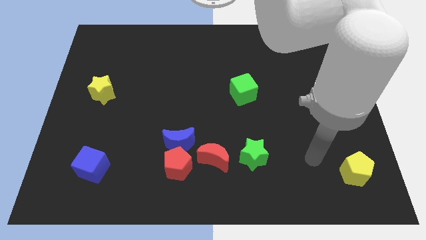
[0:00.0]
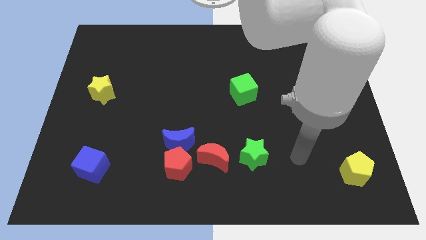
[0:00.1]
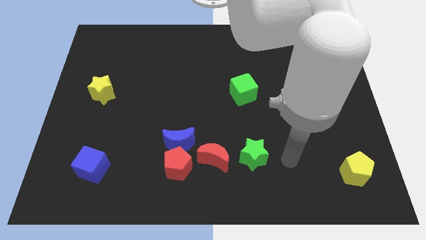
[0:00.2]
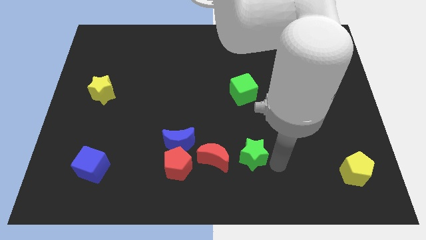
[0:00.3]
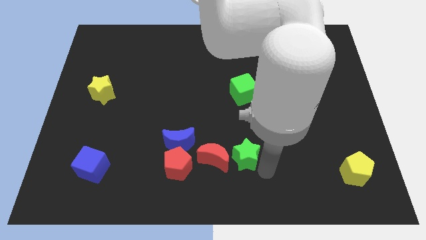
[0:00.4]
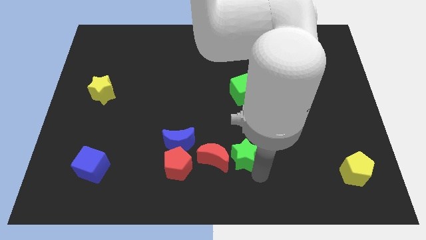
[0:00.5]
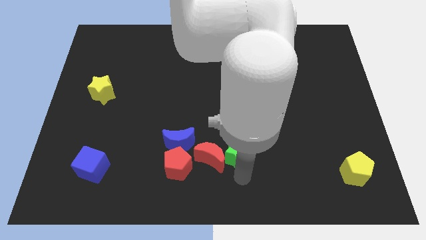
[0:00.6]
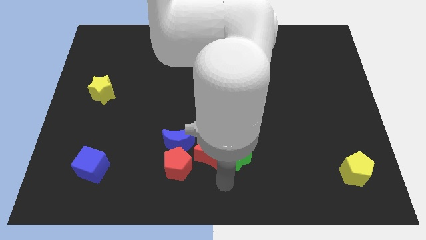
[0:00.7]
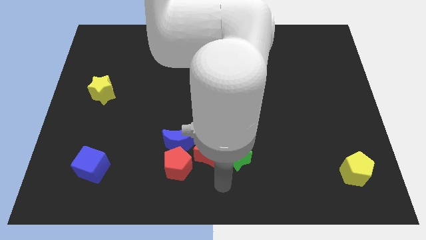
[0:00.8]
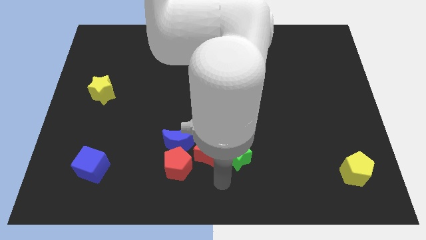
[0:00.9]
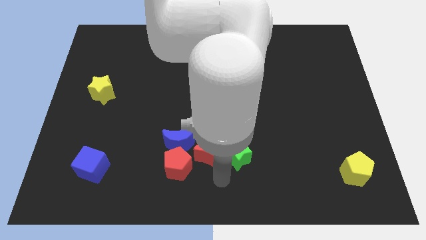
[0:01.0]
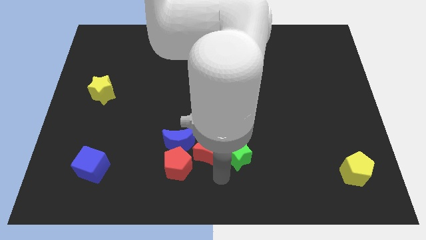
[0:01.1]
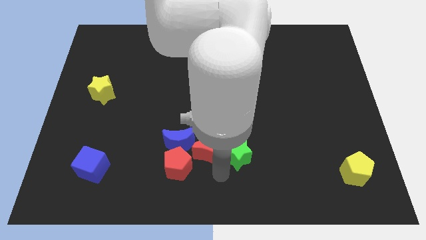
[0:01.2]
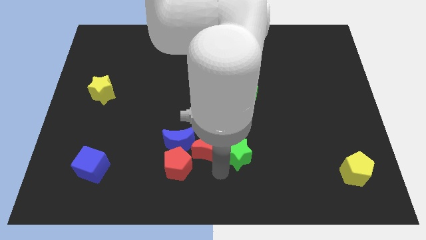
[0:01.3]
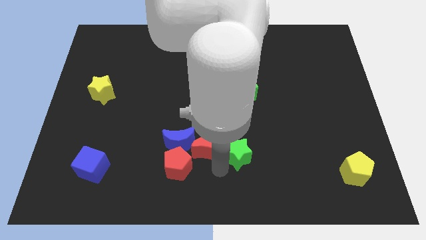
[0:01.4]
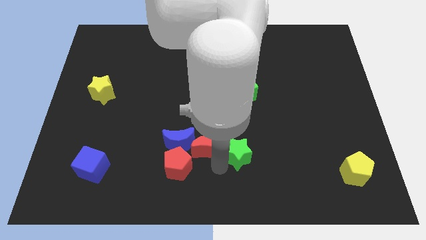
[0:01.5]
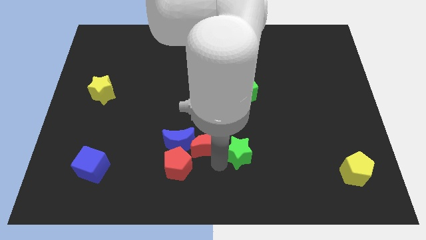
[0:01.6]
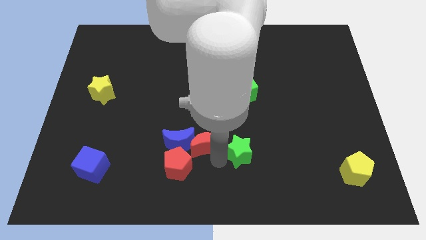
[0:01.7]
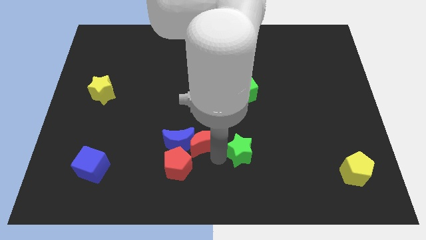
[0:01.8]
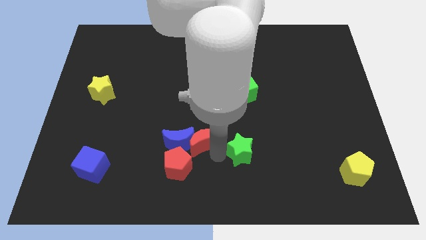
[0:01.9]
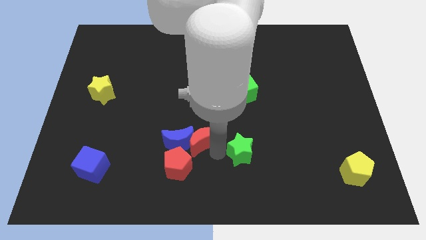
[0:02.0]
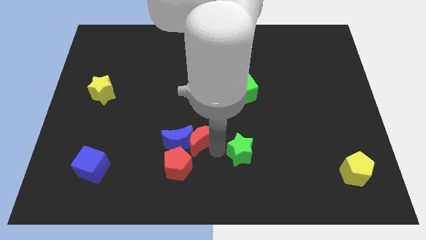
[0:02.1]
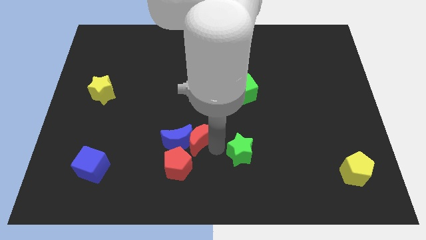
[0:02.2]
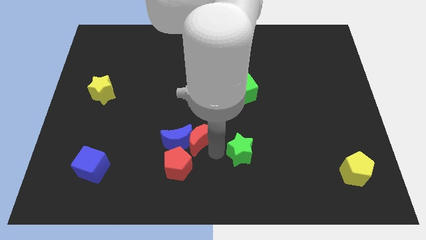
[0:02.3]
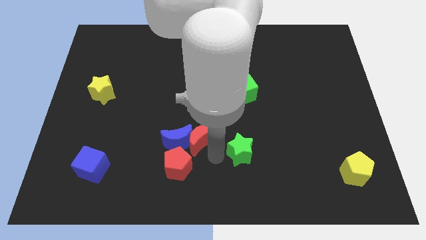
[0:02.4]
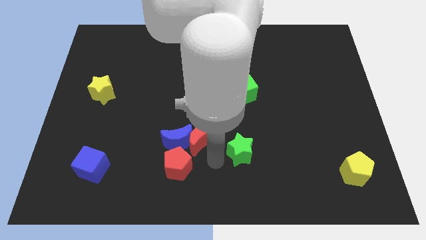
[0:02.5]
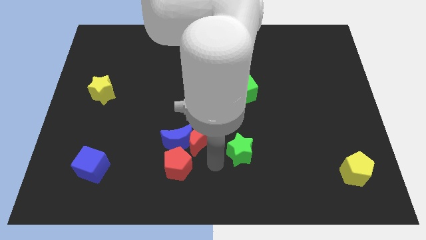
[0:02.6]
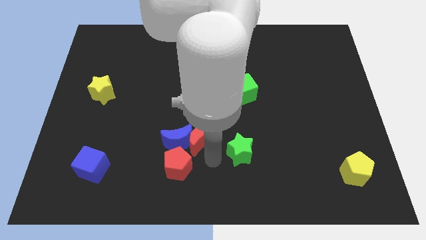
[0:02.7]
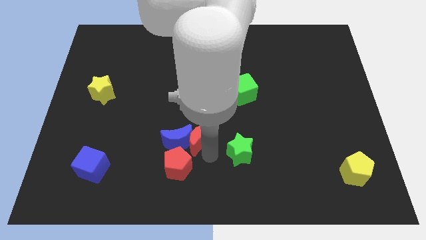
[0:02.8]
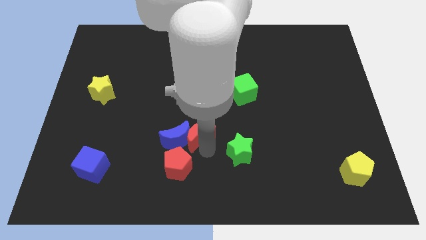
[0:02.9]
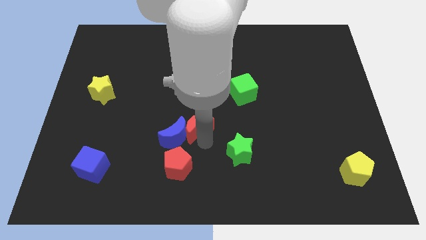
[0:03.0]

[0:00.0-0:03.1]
push the red moon somewhat upwards and then to the left

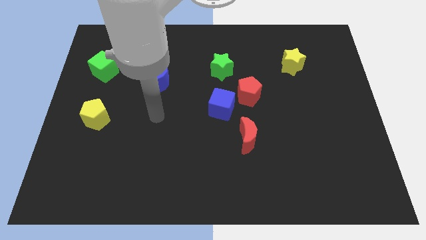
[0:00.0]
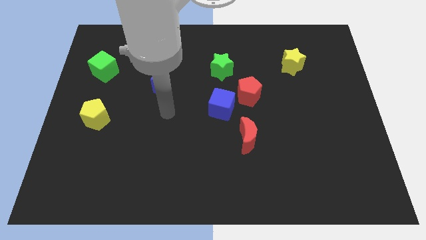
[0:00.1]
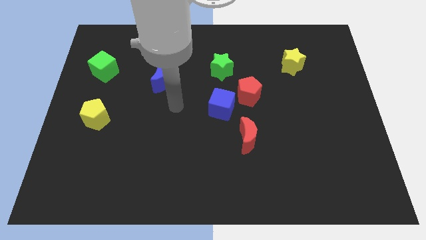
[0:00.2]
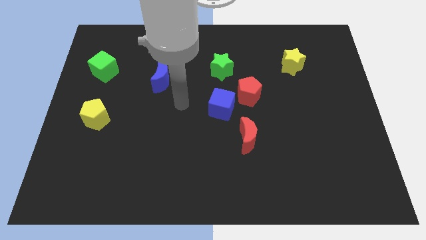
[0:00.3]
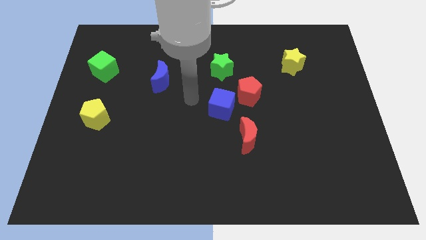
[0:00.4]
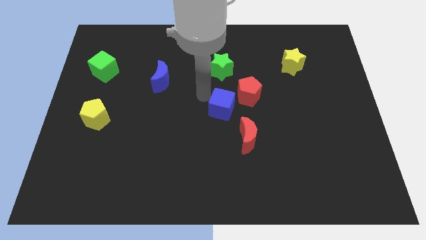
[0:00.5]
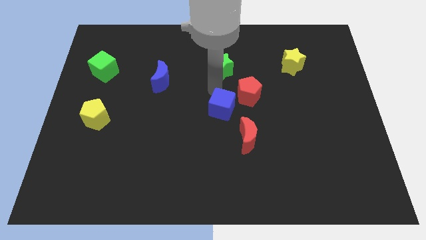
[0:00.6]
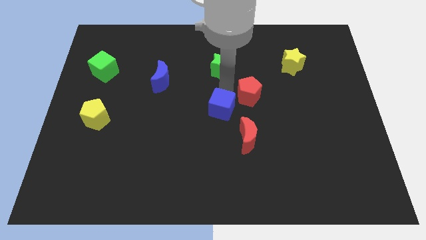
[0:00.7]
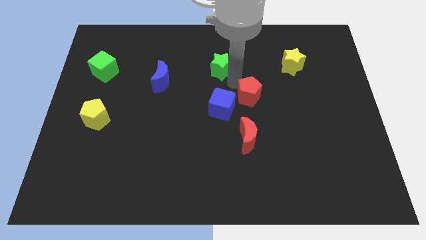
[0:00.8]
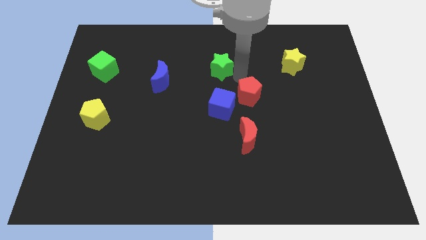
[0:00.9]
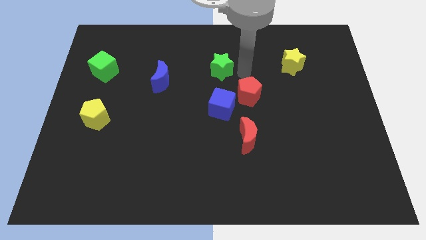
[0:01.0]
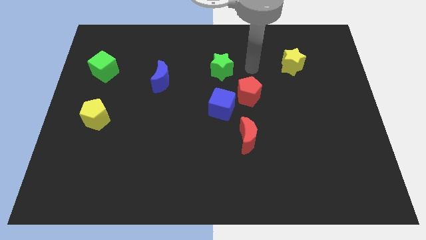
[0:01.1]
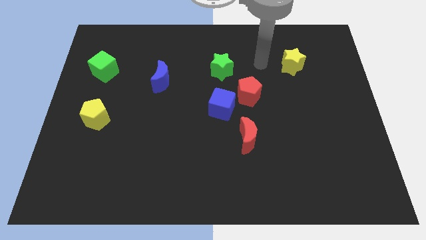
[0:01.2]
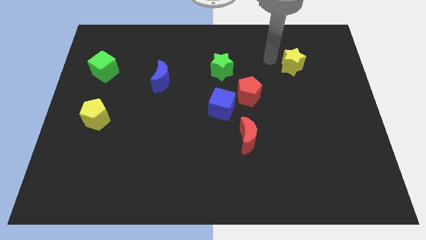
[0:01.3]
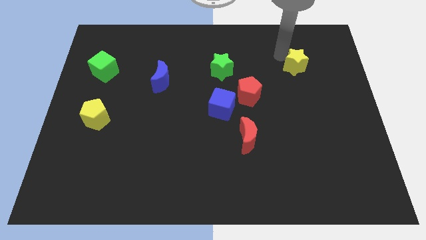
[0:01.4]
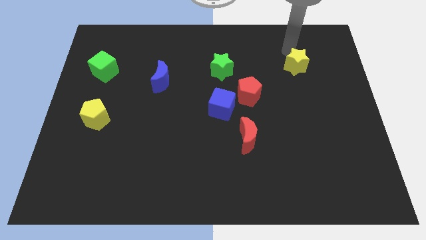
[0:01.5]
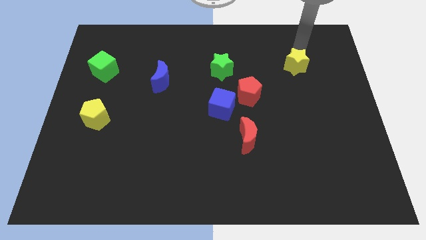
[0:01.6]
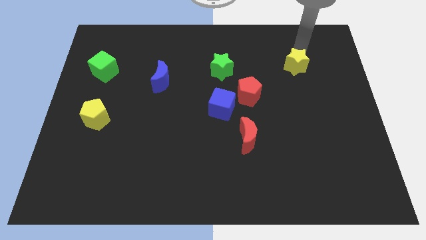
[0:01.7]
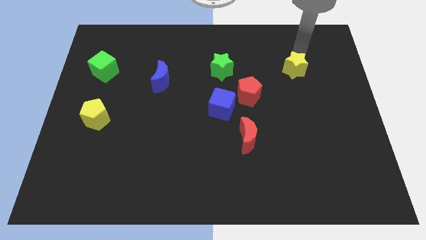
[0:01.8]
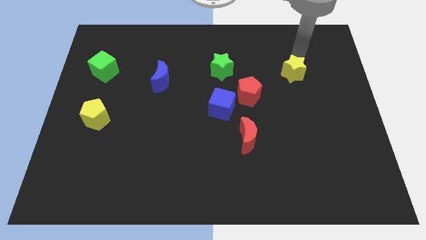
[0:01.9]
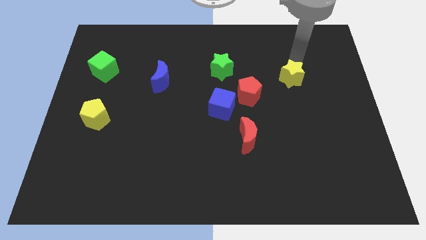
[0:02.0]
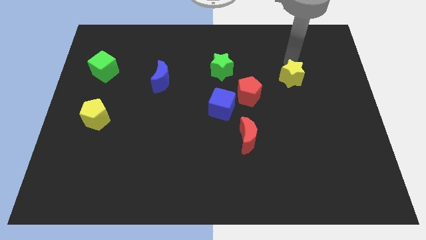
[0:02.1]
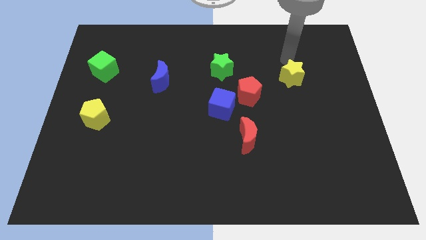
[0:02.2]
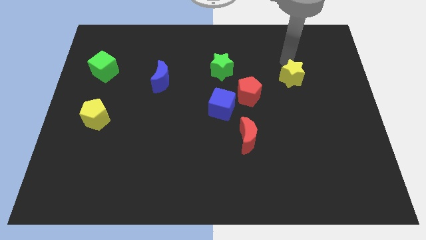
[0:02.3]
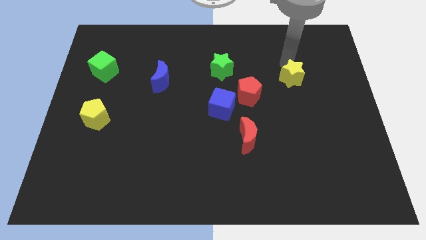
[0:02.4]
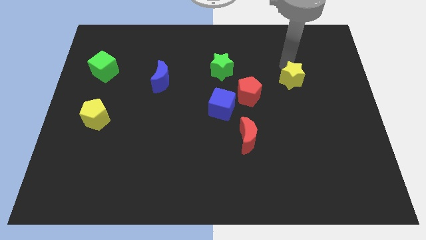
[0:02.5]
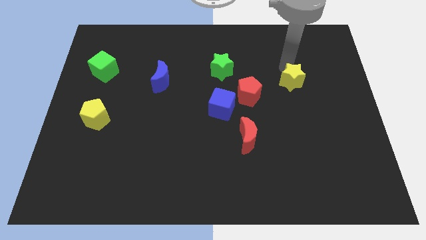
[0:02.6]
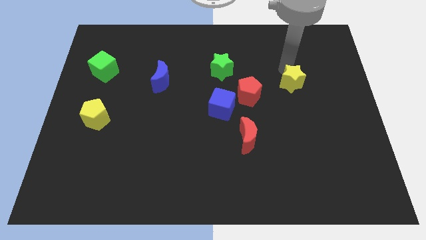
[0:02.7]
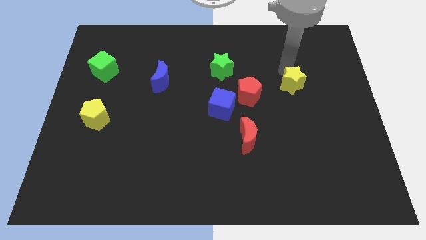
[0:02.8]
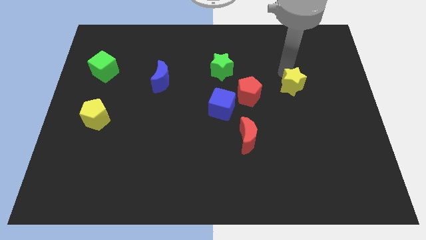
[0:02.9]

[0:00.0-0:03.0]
move the yellow star downwards a bit

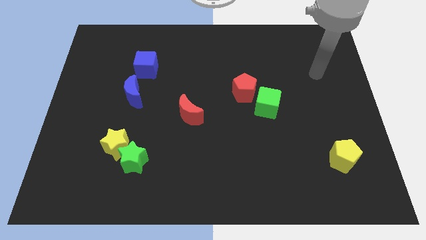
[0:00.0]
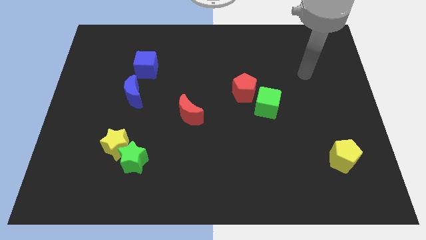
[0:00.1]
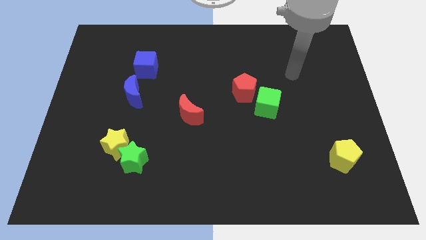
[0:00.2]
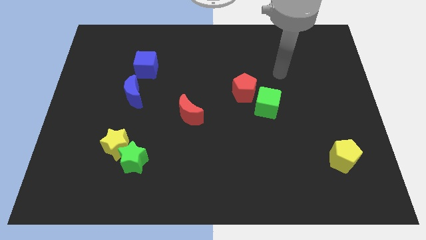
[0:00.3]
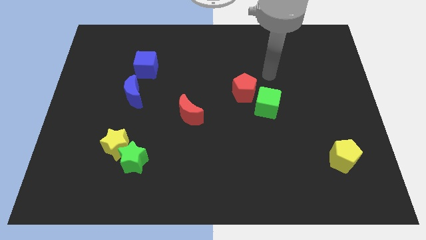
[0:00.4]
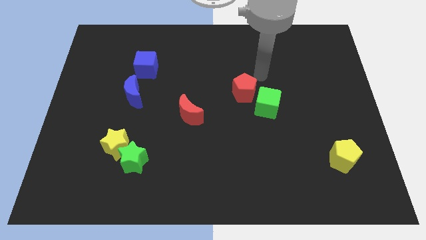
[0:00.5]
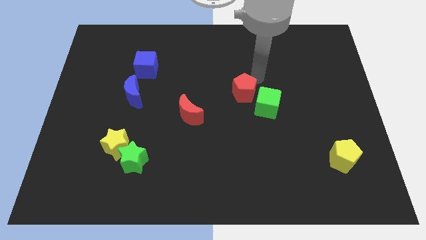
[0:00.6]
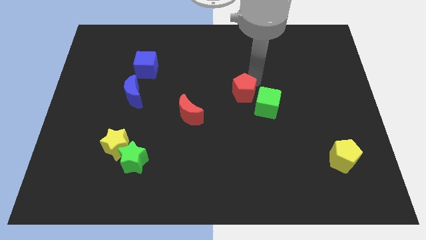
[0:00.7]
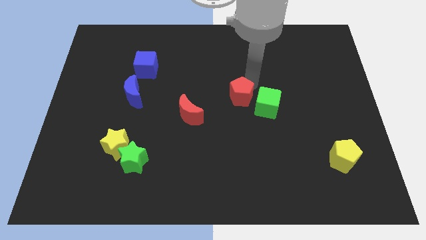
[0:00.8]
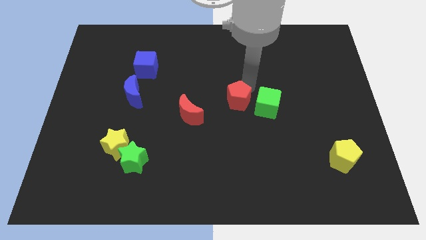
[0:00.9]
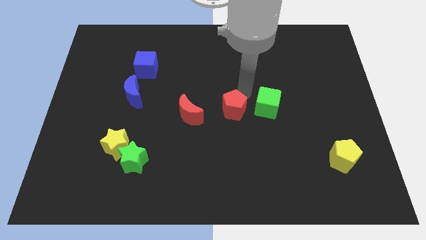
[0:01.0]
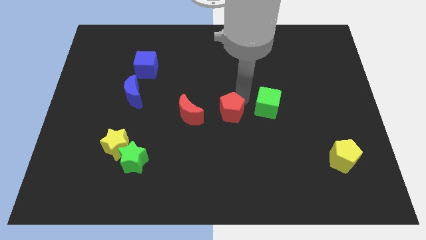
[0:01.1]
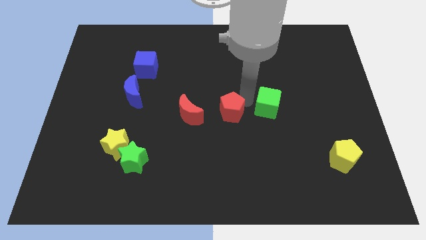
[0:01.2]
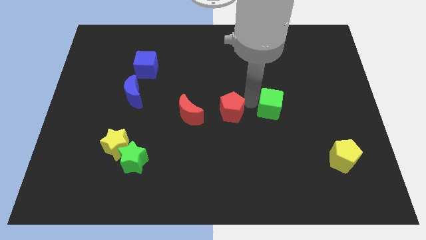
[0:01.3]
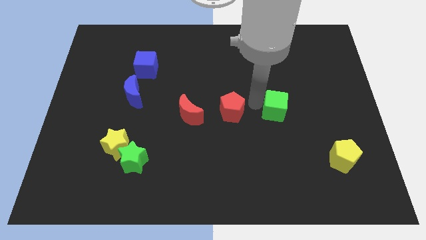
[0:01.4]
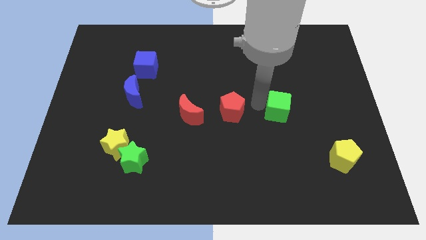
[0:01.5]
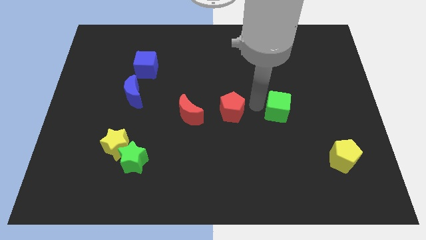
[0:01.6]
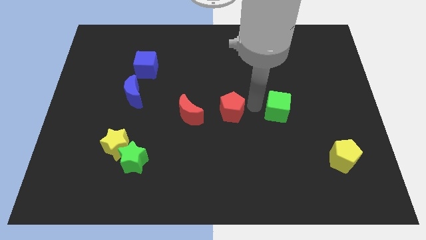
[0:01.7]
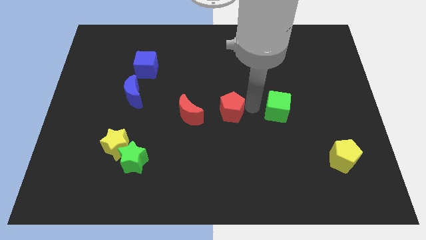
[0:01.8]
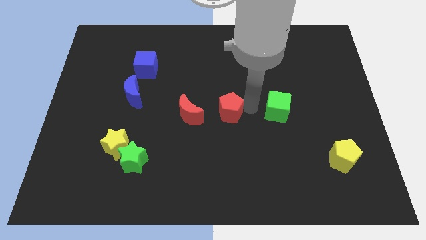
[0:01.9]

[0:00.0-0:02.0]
slide the red pentagon somewhat downwards and then to the left

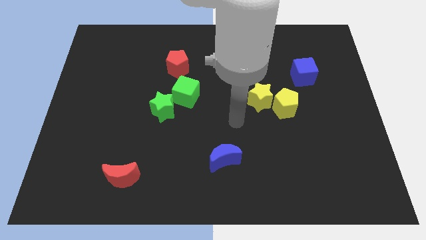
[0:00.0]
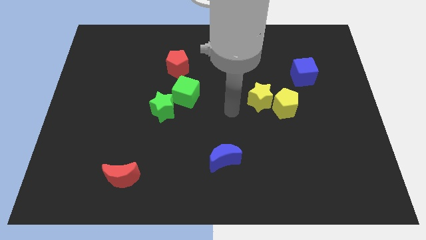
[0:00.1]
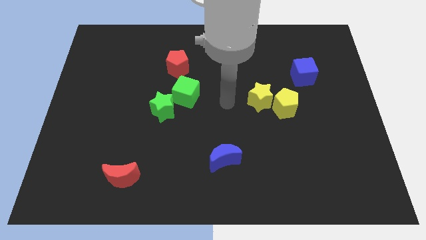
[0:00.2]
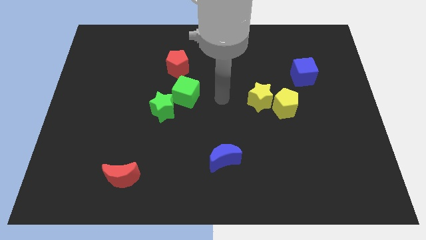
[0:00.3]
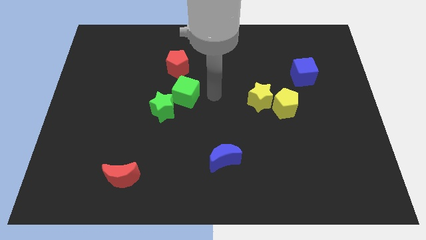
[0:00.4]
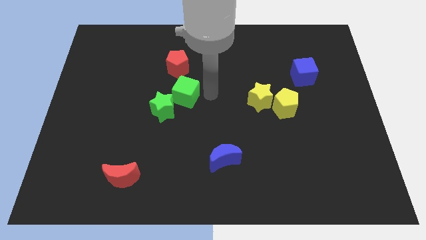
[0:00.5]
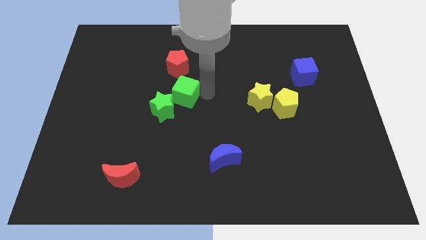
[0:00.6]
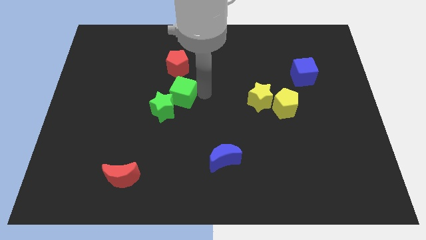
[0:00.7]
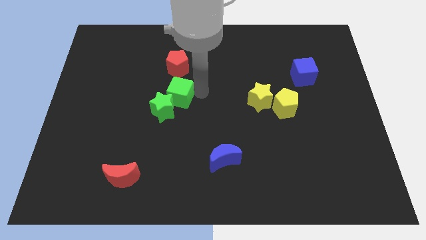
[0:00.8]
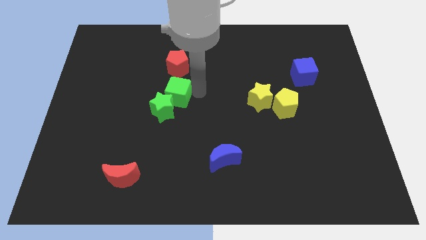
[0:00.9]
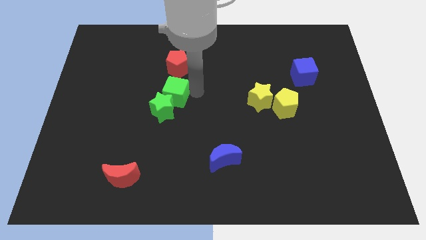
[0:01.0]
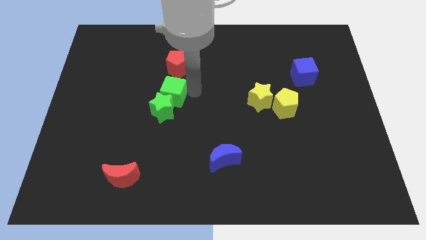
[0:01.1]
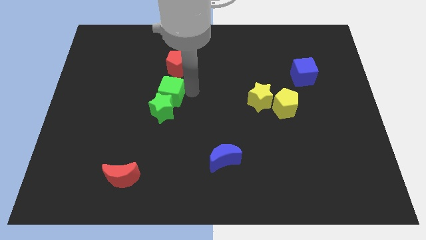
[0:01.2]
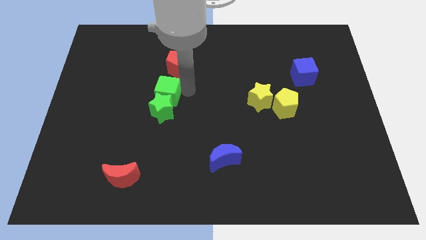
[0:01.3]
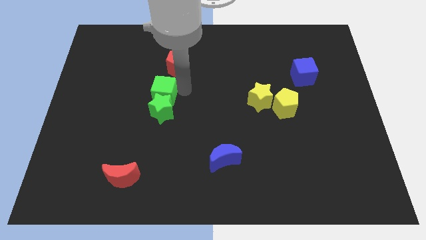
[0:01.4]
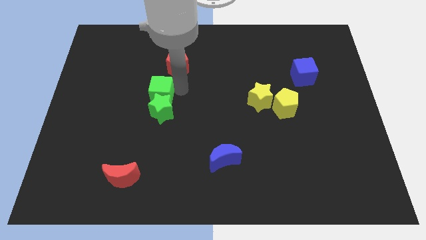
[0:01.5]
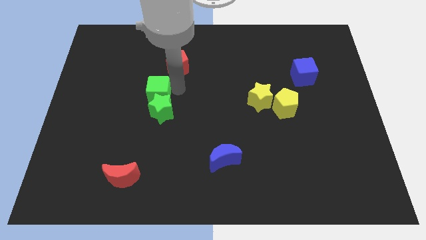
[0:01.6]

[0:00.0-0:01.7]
slightly slide the green cube left
